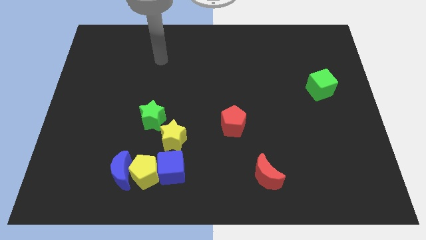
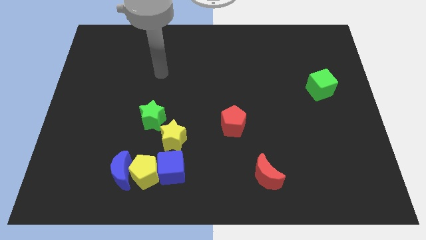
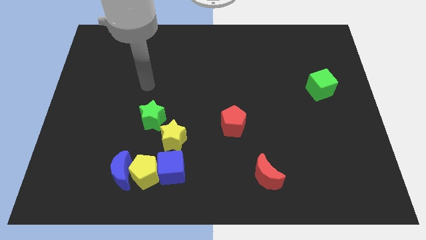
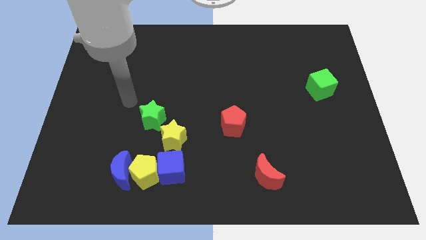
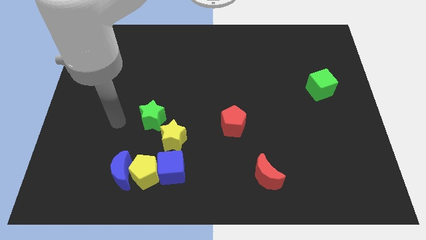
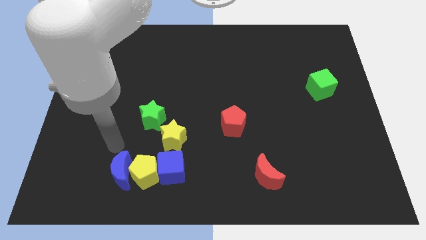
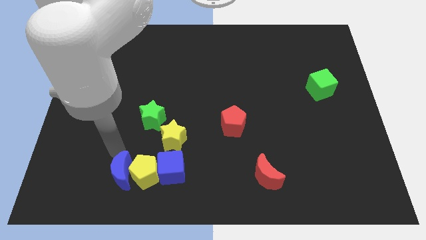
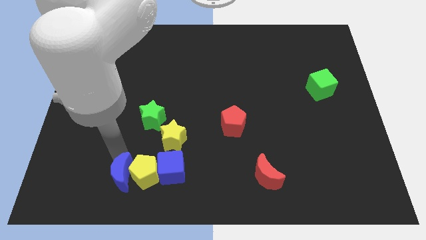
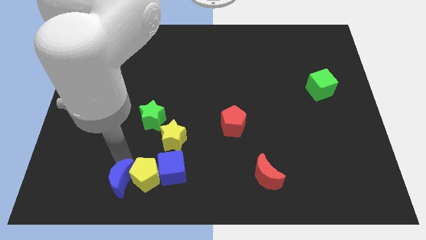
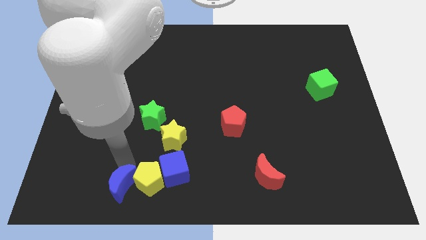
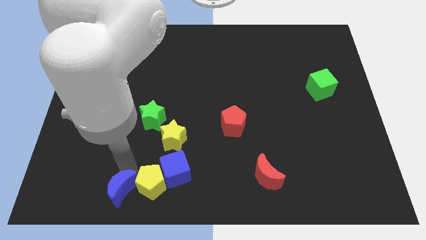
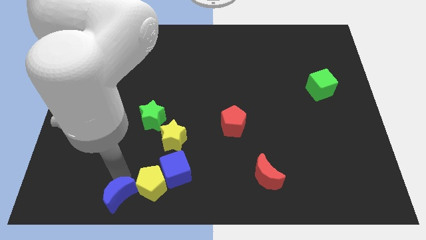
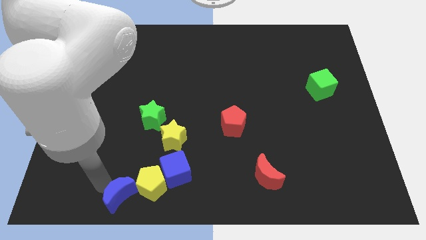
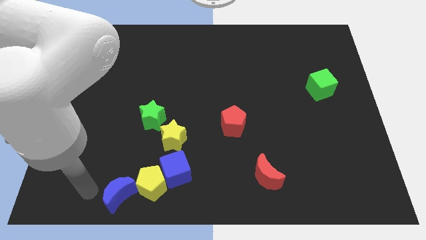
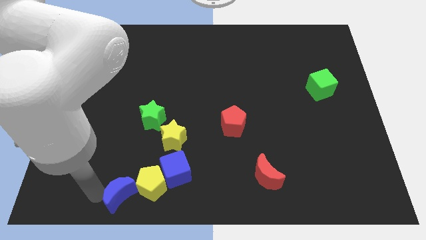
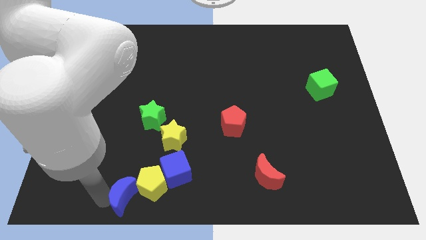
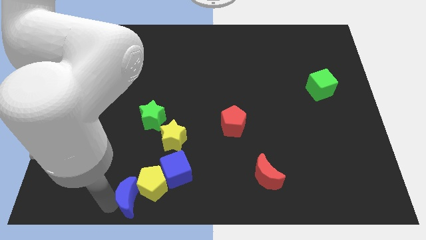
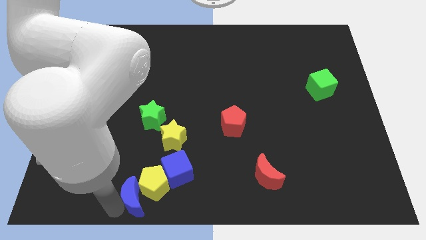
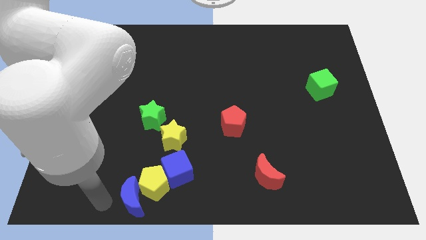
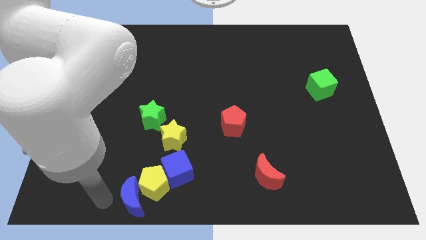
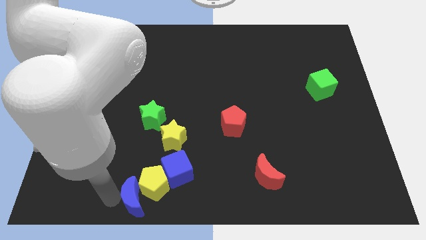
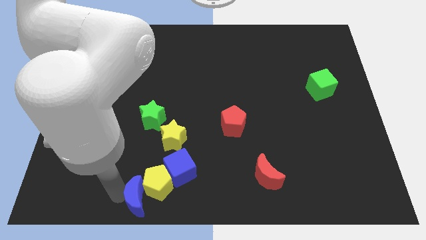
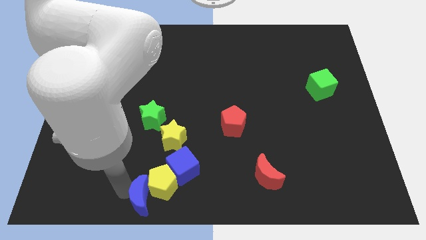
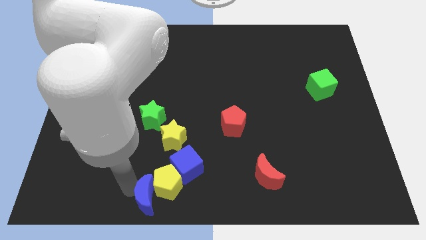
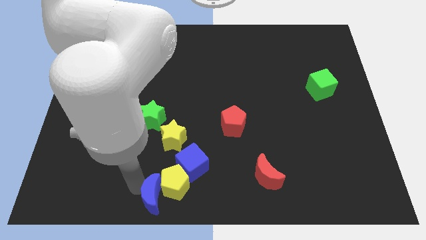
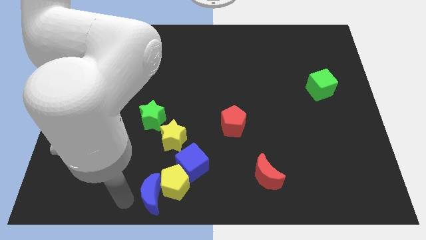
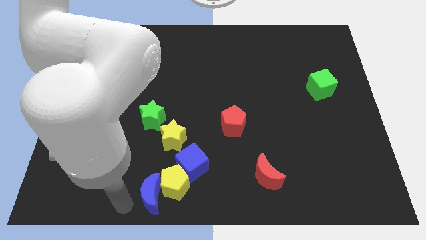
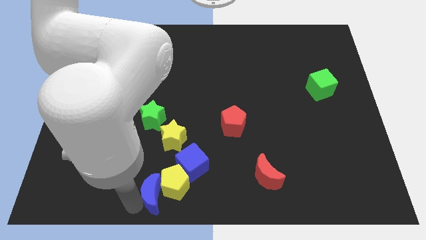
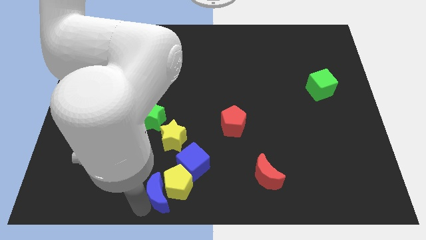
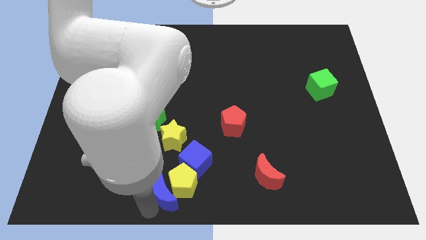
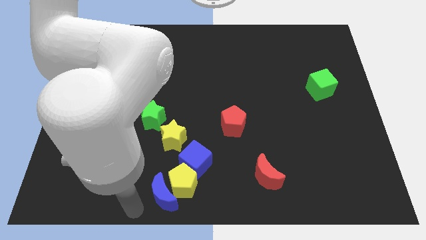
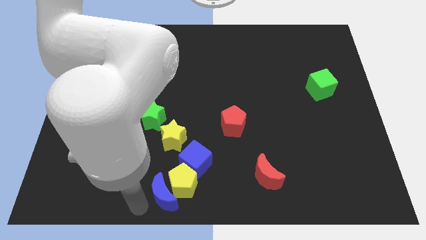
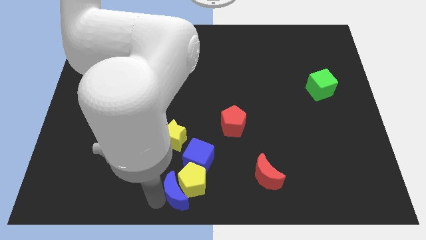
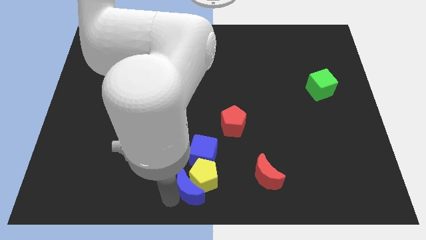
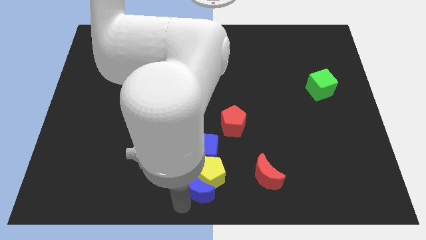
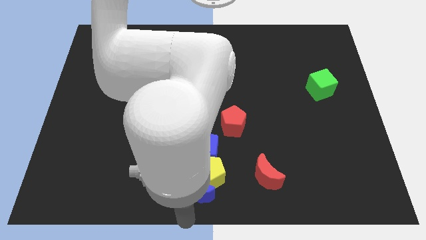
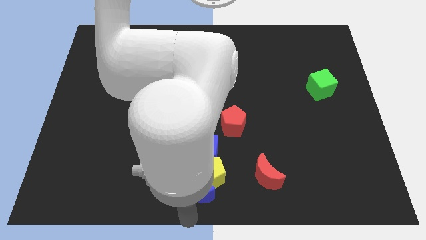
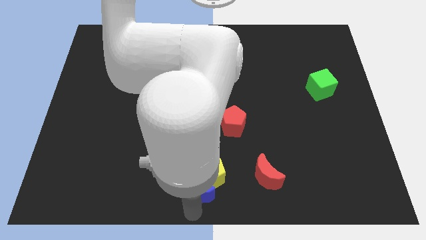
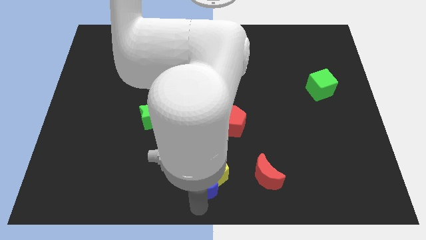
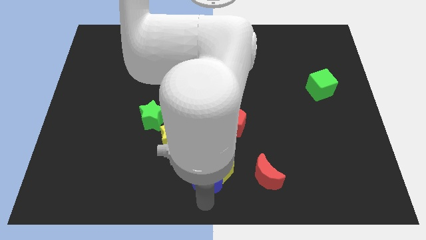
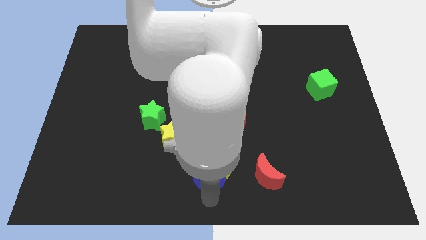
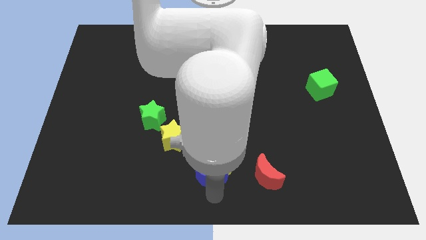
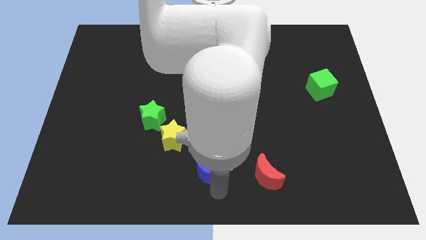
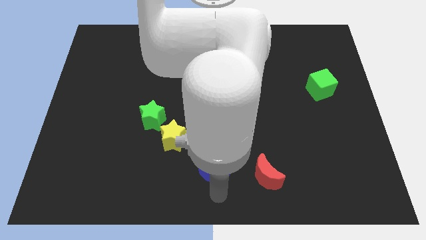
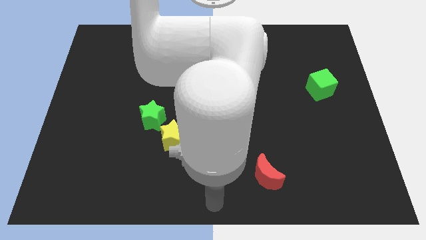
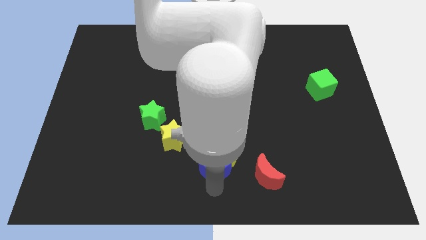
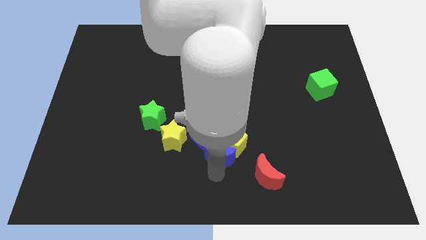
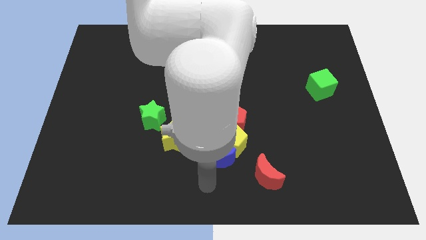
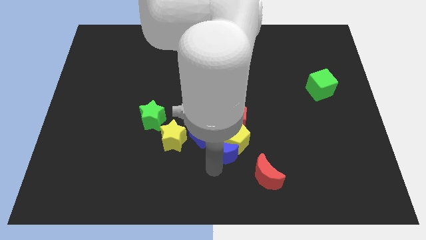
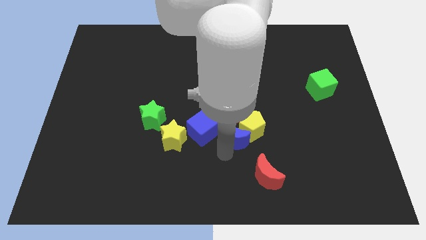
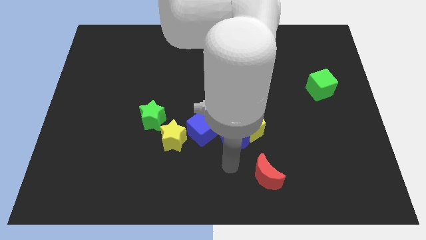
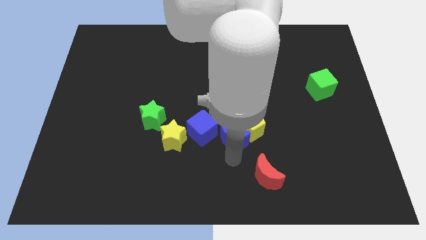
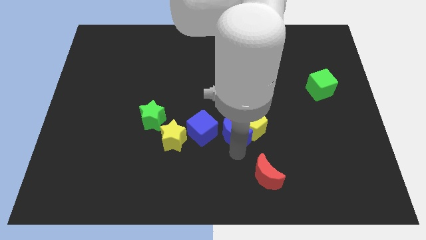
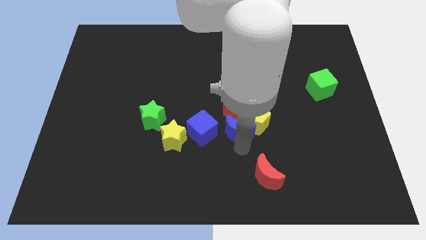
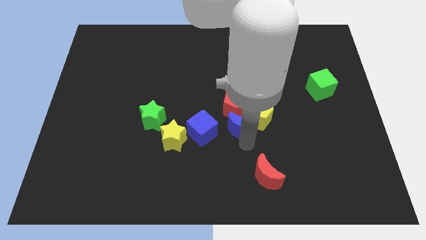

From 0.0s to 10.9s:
move the blue moon to the red pentagon

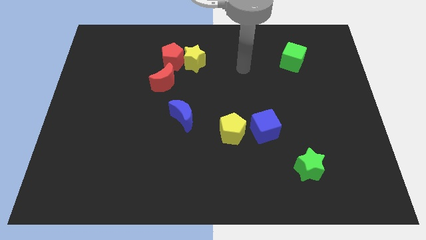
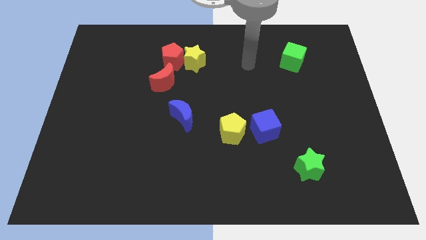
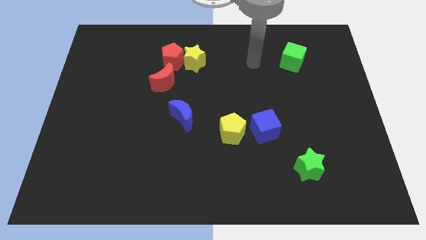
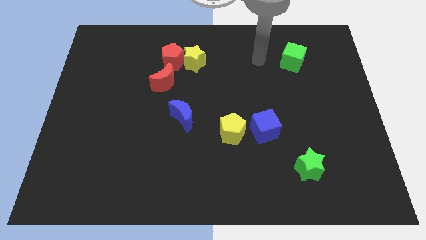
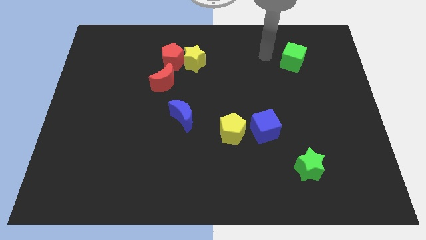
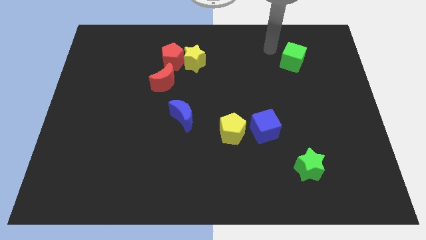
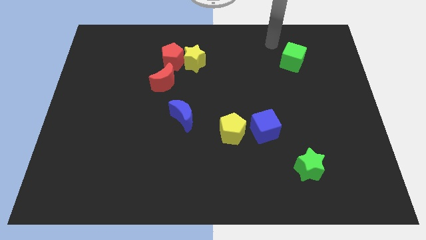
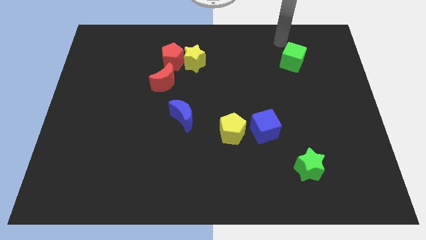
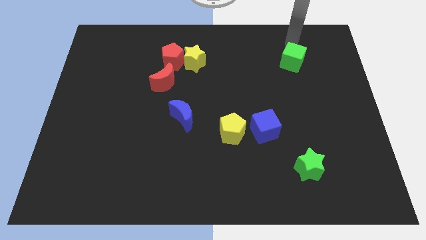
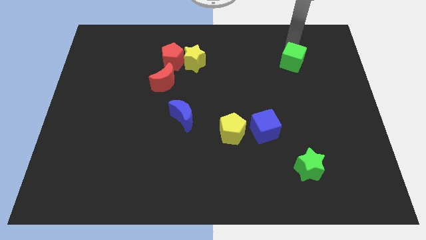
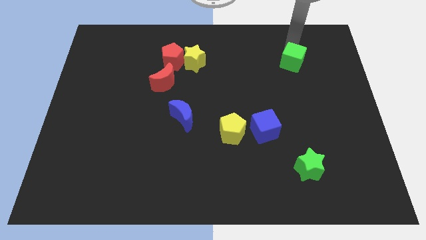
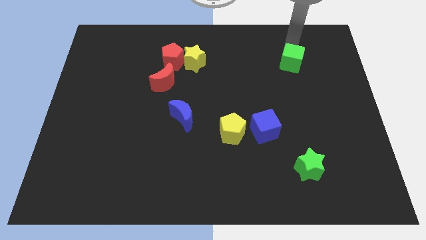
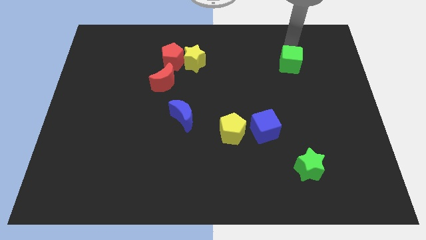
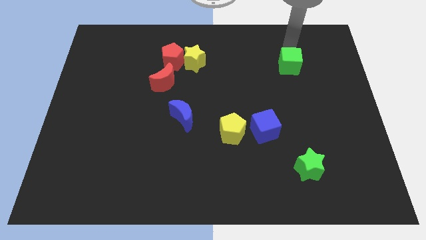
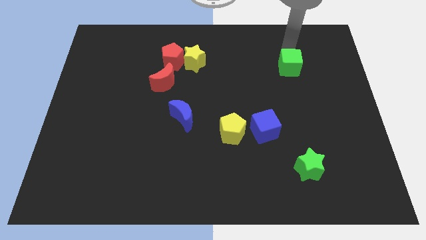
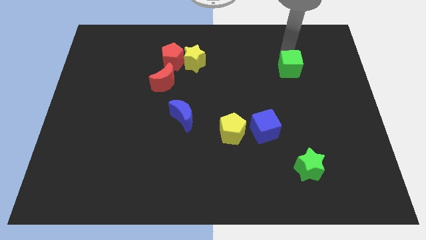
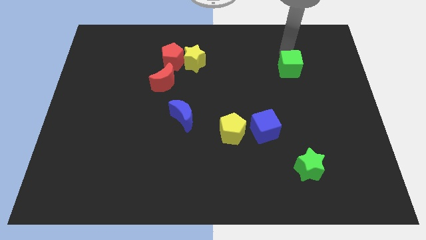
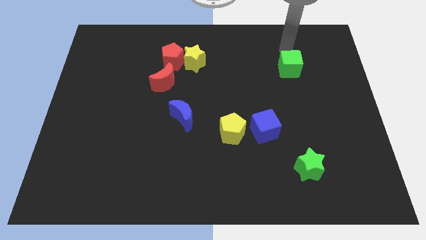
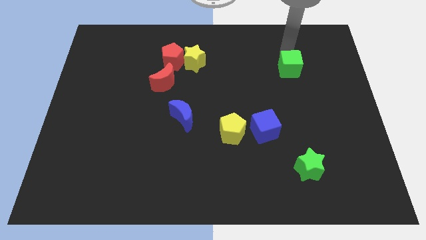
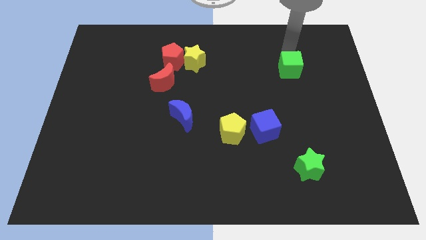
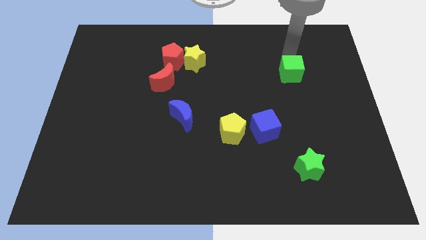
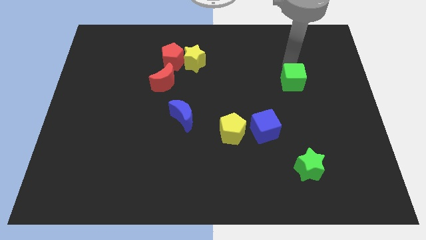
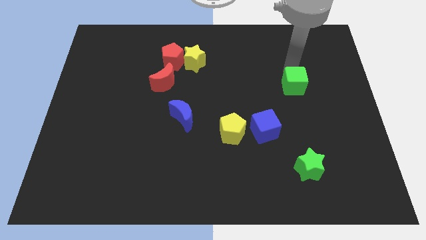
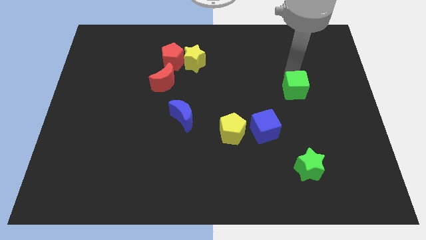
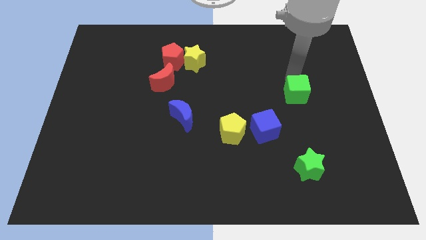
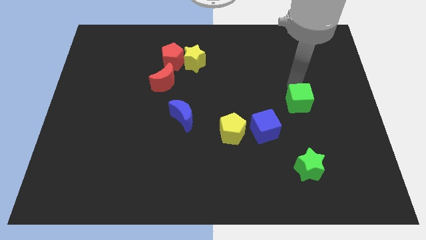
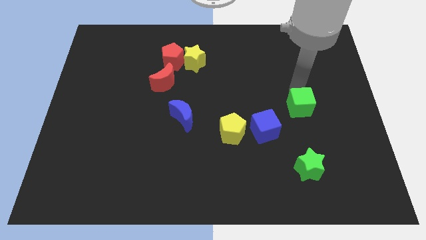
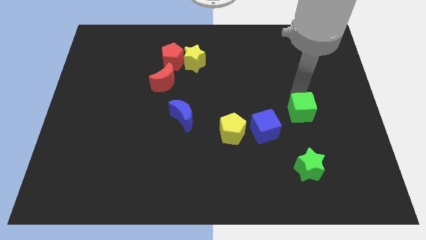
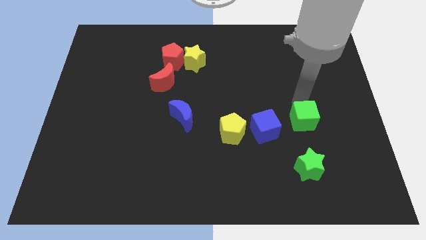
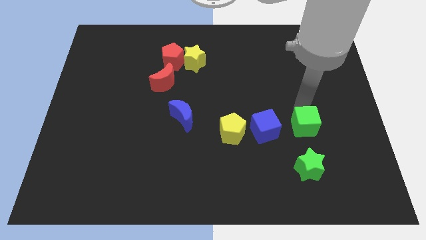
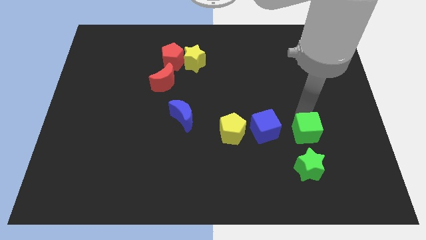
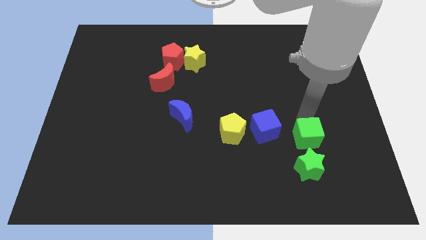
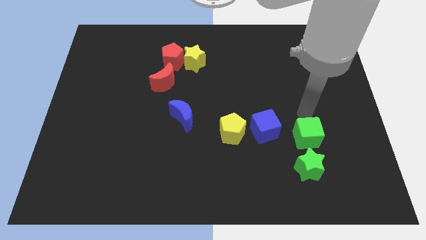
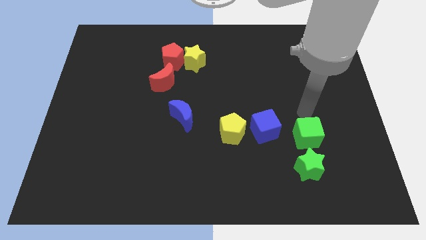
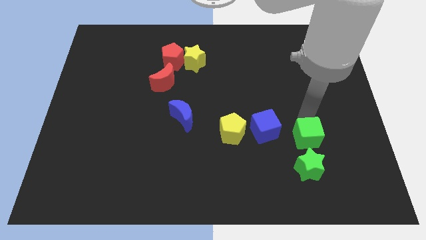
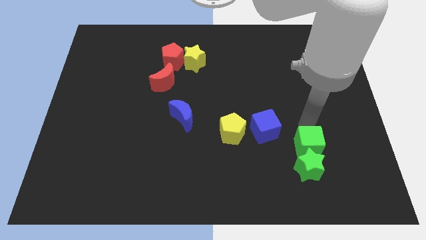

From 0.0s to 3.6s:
put the green cube close to the green star
